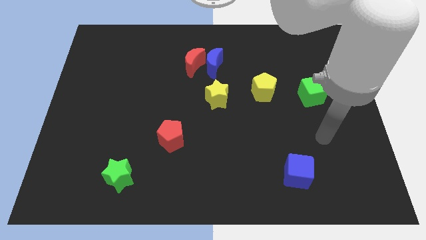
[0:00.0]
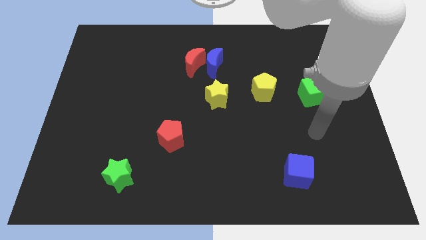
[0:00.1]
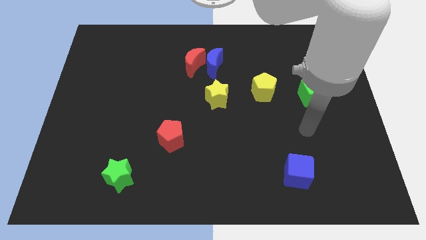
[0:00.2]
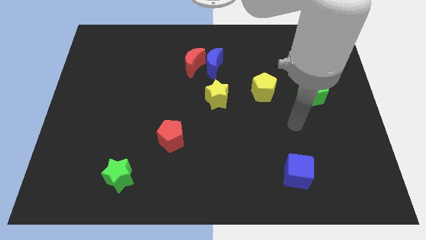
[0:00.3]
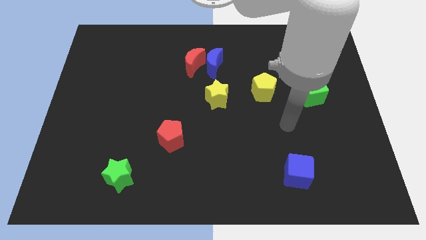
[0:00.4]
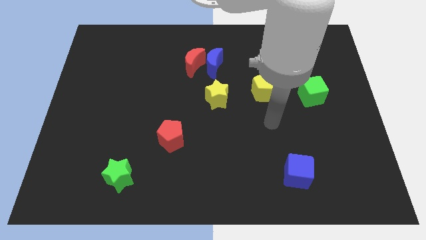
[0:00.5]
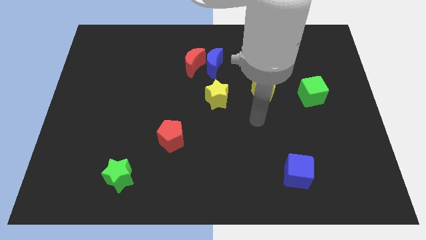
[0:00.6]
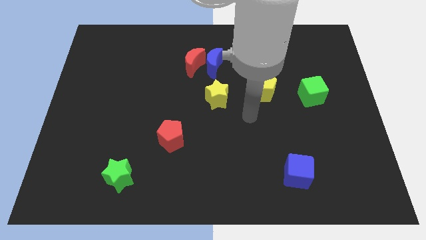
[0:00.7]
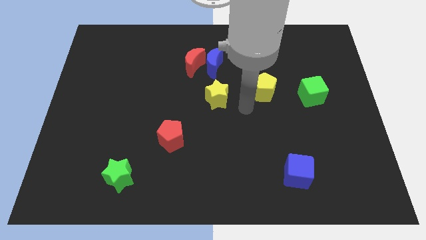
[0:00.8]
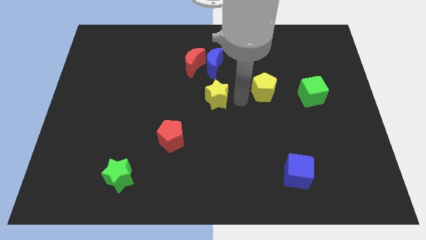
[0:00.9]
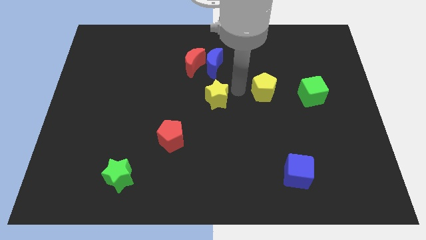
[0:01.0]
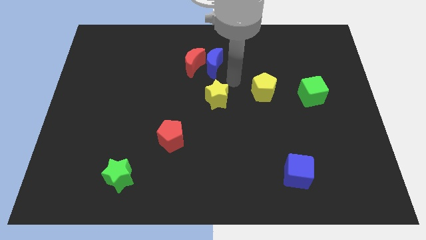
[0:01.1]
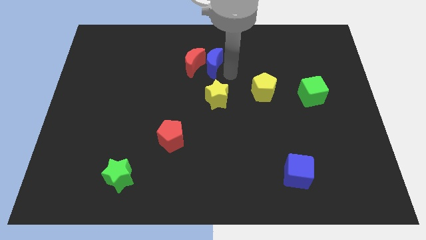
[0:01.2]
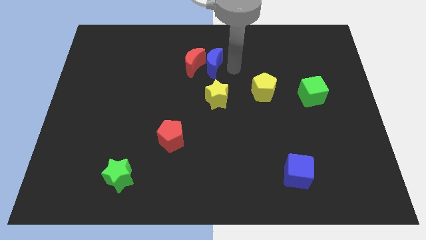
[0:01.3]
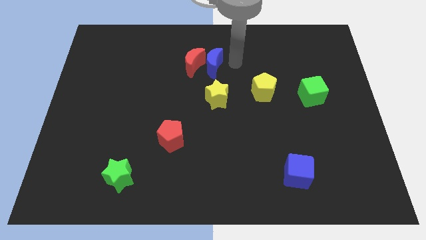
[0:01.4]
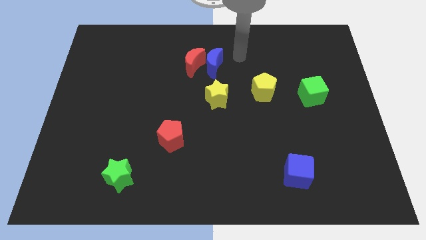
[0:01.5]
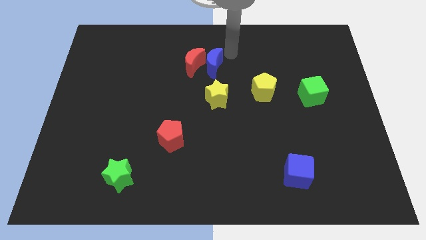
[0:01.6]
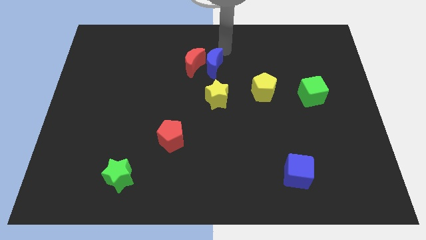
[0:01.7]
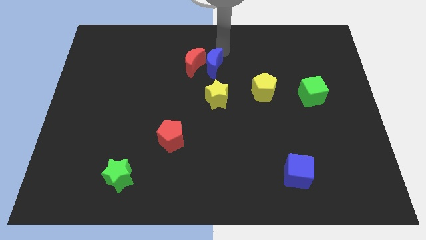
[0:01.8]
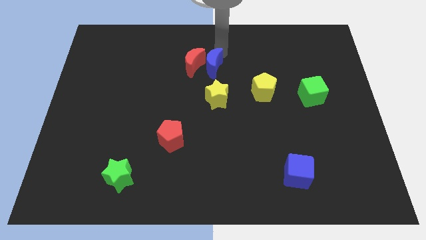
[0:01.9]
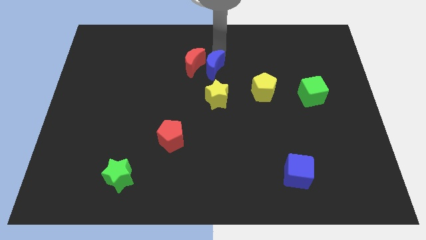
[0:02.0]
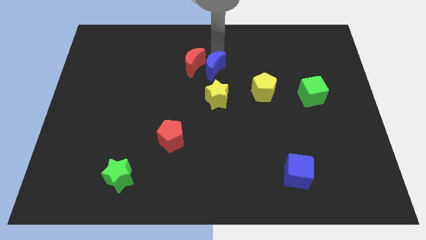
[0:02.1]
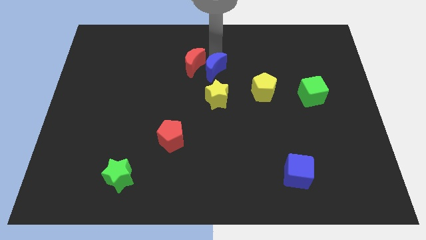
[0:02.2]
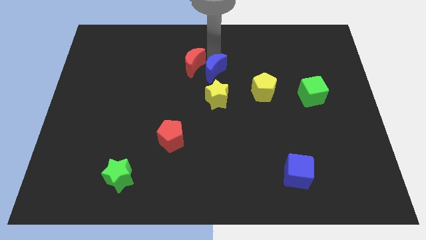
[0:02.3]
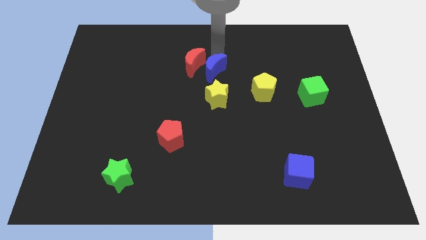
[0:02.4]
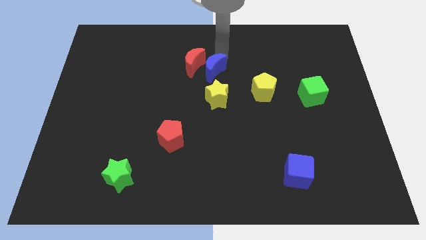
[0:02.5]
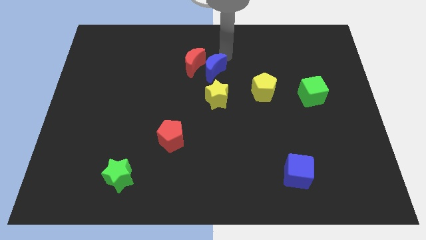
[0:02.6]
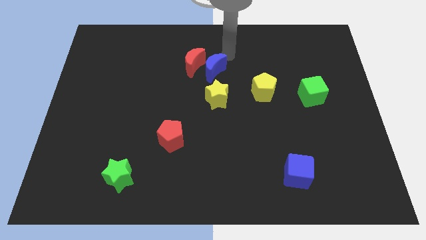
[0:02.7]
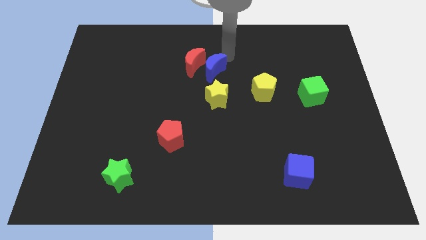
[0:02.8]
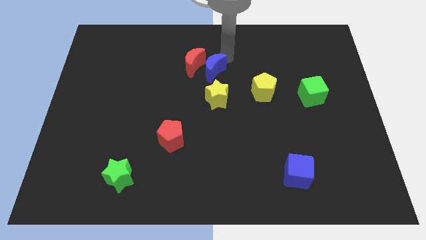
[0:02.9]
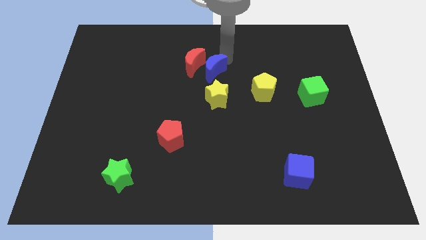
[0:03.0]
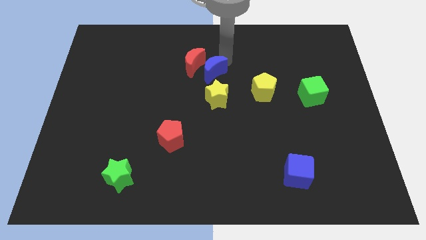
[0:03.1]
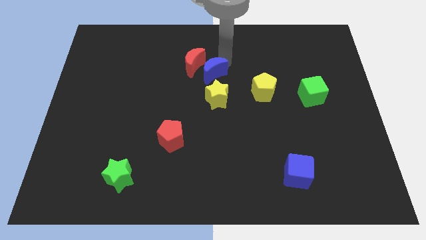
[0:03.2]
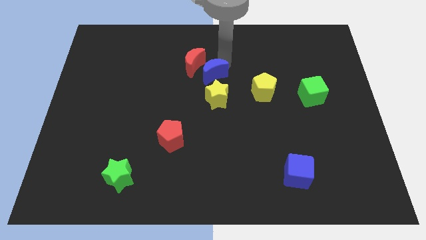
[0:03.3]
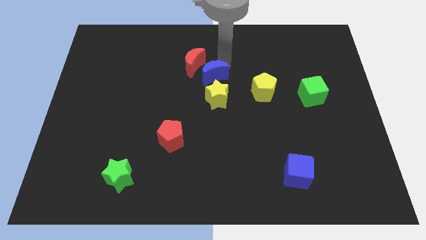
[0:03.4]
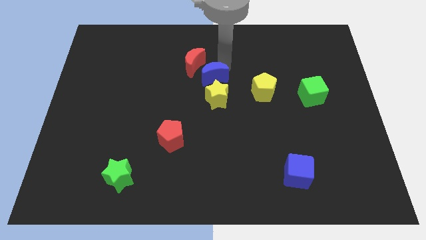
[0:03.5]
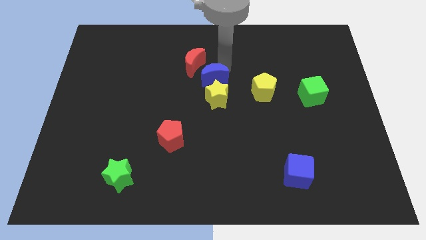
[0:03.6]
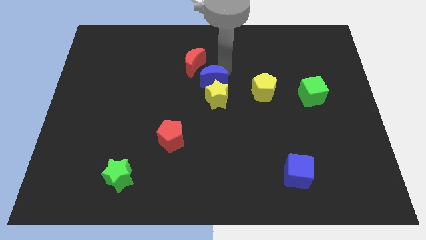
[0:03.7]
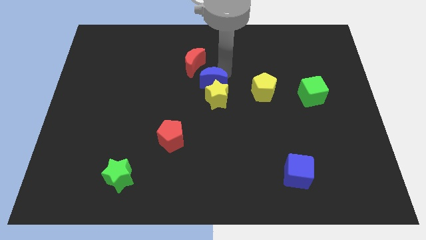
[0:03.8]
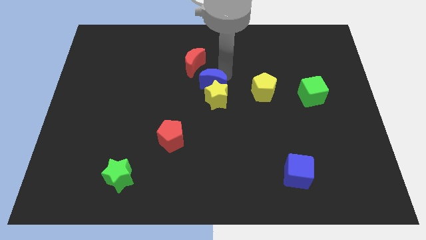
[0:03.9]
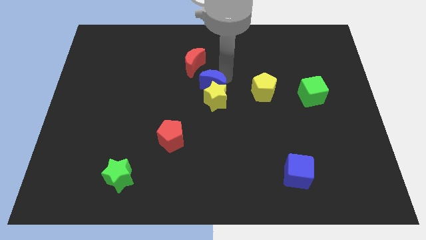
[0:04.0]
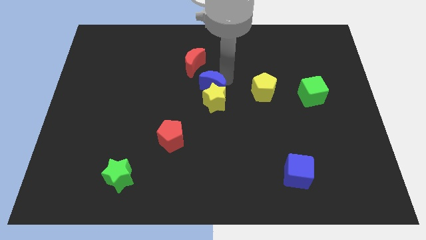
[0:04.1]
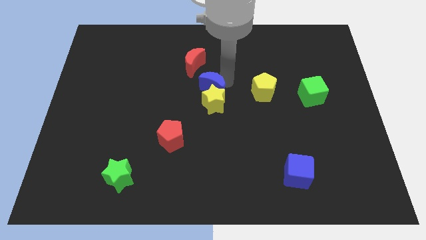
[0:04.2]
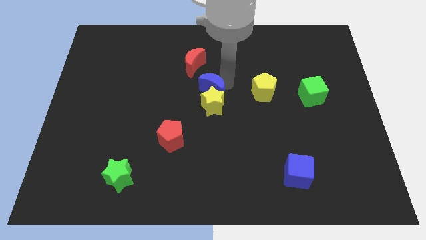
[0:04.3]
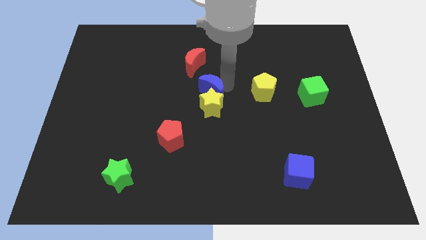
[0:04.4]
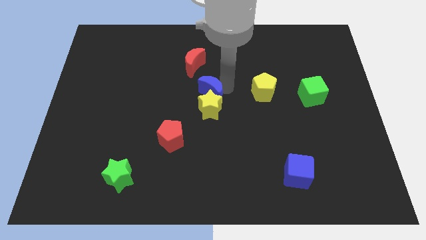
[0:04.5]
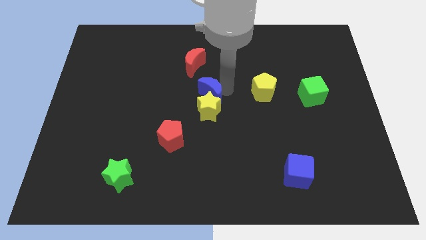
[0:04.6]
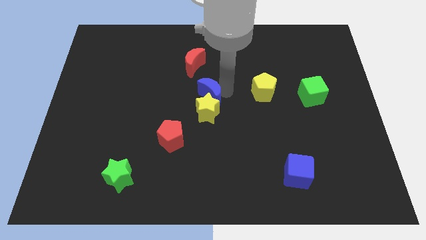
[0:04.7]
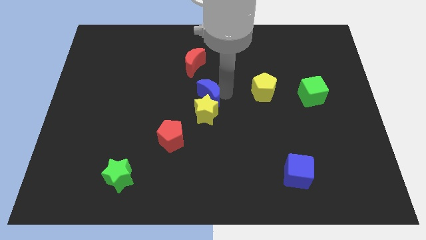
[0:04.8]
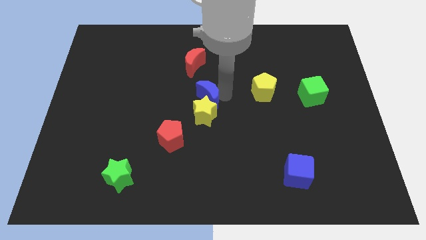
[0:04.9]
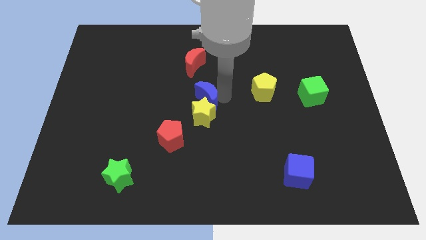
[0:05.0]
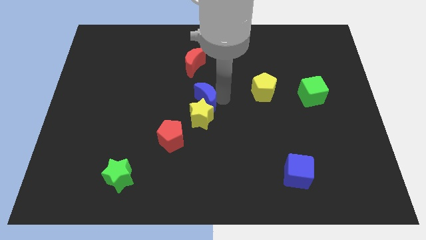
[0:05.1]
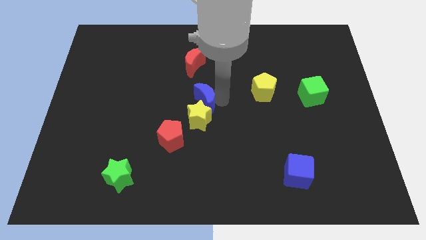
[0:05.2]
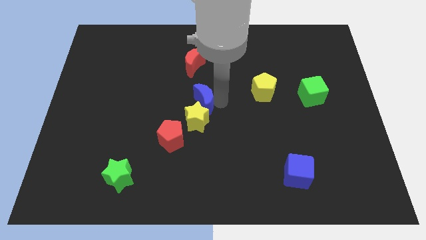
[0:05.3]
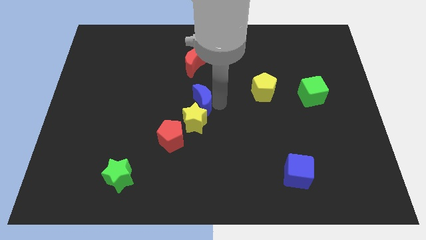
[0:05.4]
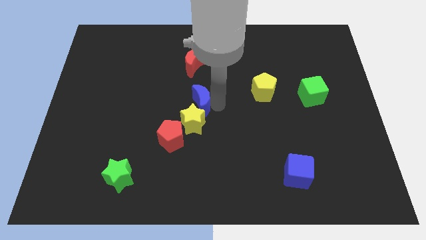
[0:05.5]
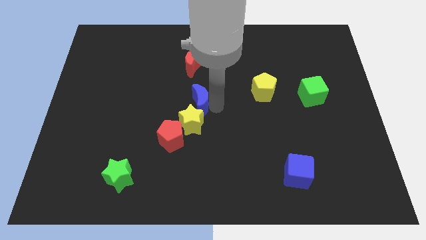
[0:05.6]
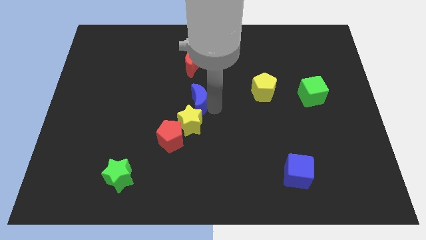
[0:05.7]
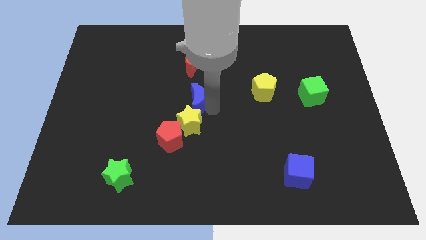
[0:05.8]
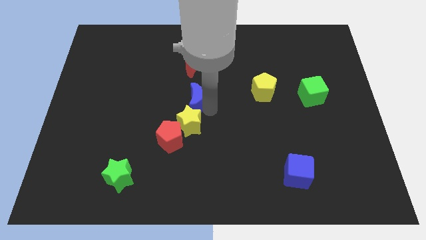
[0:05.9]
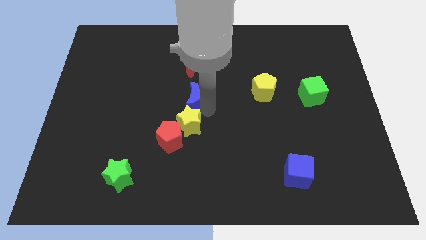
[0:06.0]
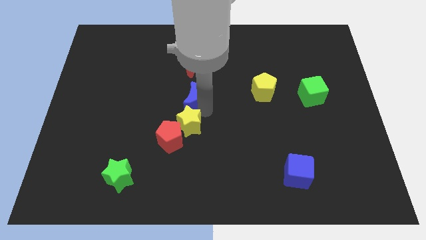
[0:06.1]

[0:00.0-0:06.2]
move the blue moon above the red pentagon

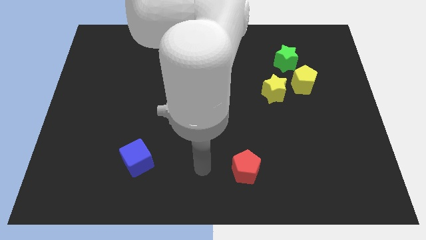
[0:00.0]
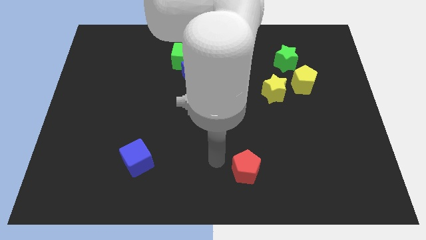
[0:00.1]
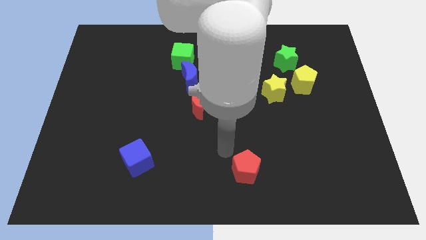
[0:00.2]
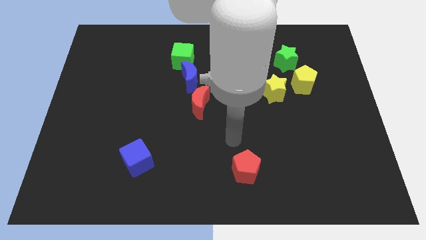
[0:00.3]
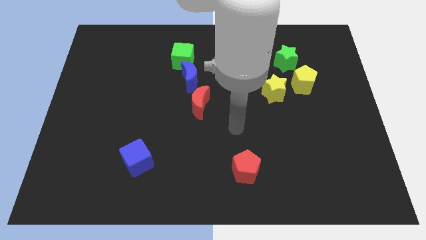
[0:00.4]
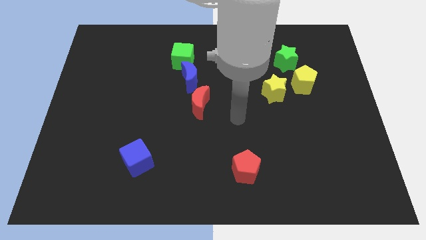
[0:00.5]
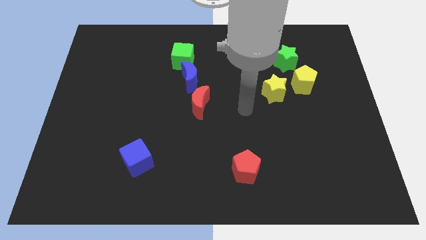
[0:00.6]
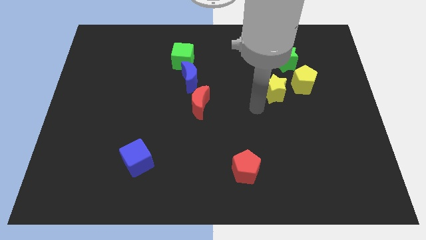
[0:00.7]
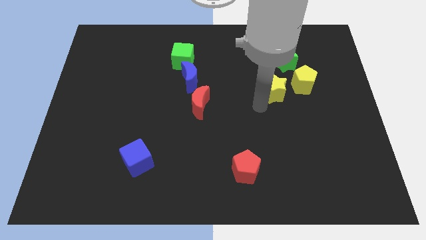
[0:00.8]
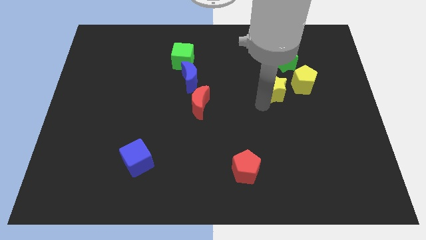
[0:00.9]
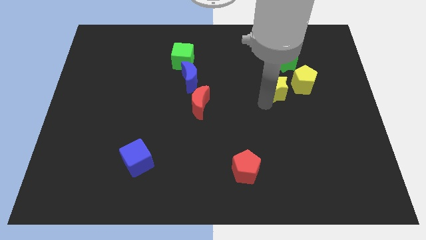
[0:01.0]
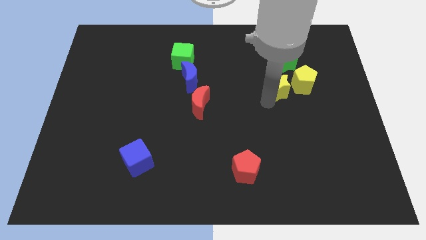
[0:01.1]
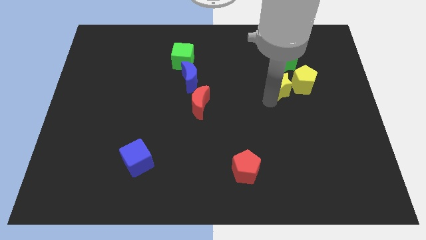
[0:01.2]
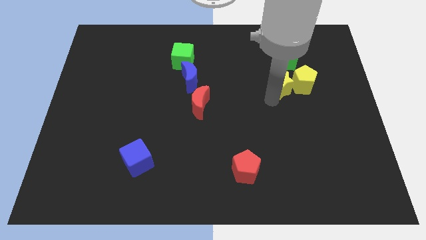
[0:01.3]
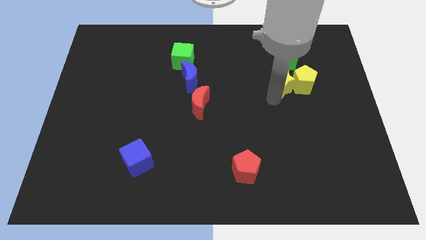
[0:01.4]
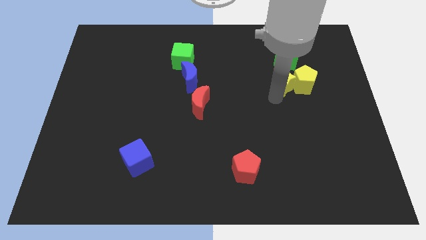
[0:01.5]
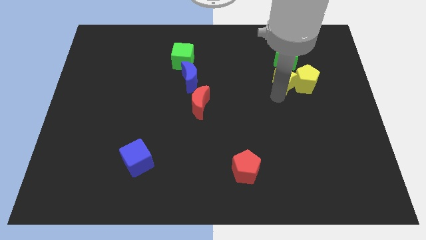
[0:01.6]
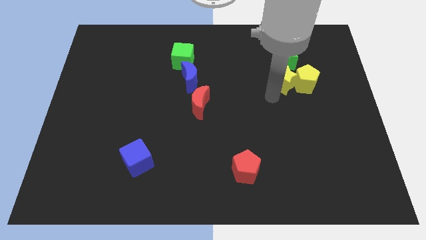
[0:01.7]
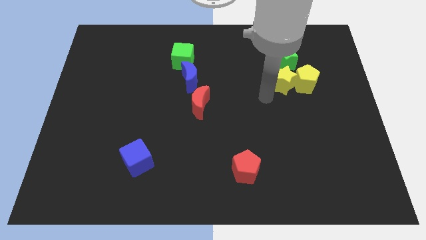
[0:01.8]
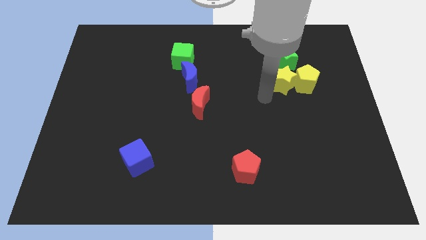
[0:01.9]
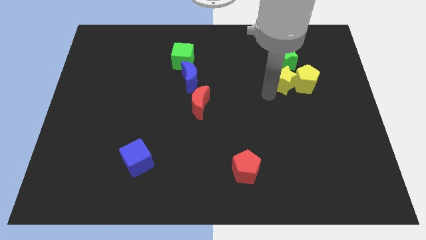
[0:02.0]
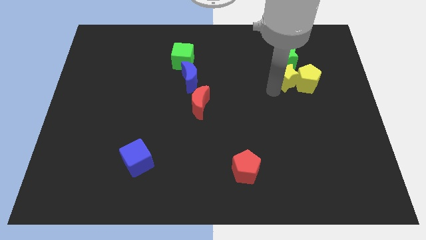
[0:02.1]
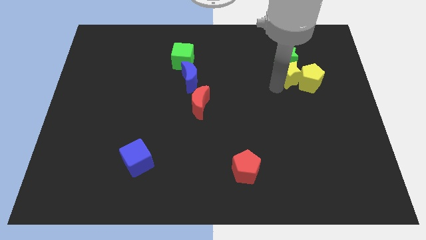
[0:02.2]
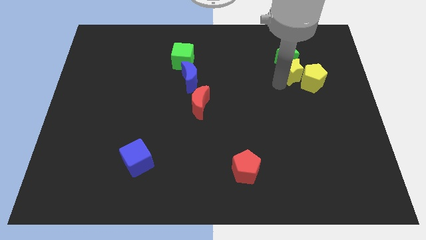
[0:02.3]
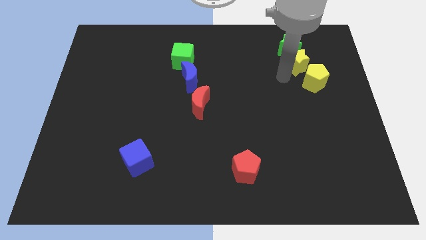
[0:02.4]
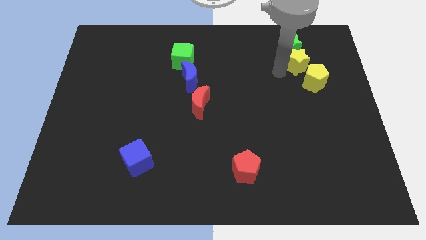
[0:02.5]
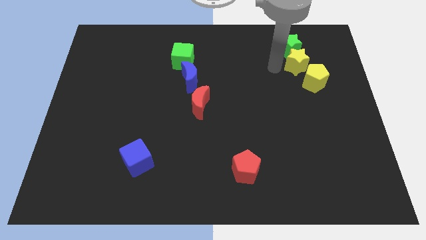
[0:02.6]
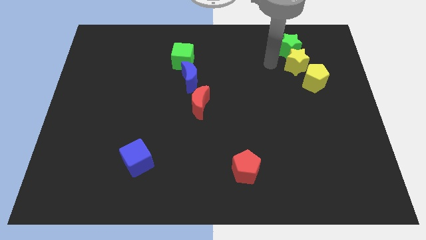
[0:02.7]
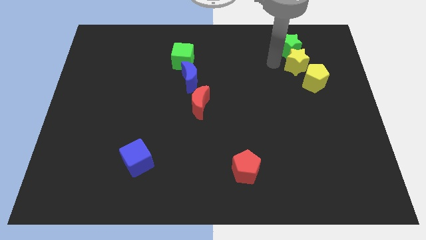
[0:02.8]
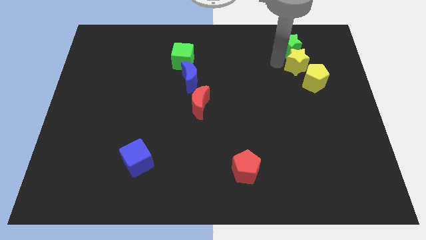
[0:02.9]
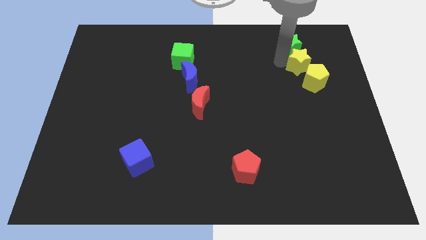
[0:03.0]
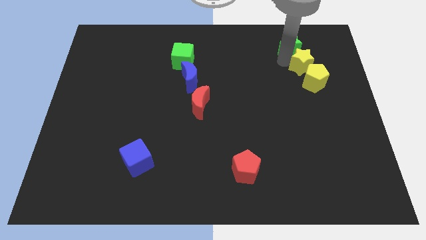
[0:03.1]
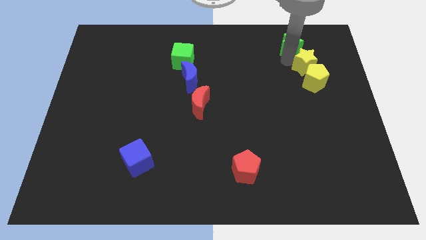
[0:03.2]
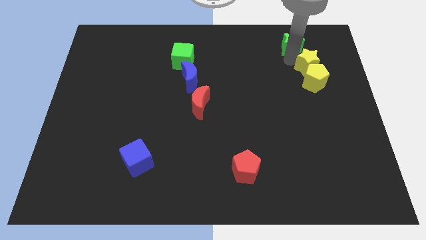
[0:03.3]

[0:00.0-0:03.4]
slide the yellow star to the top right side of the yellow pentagon
